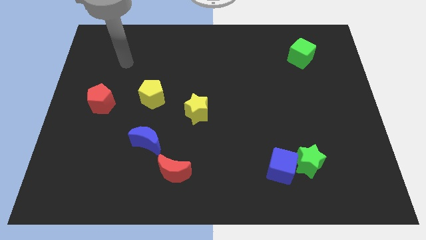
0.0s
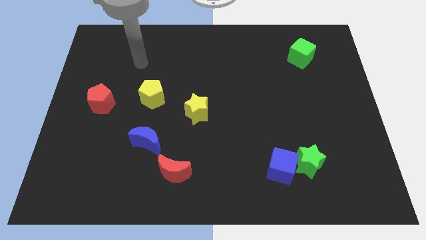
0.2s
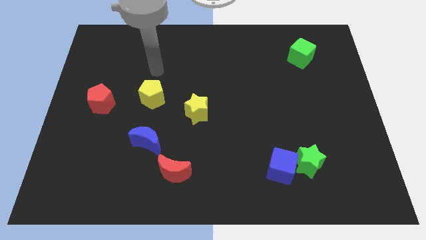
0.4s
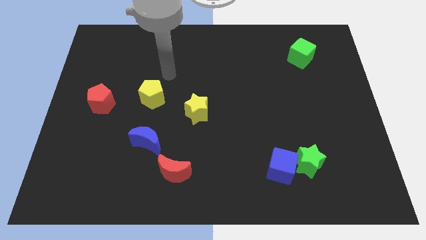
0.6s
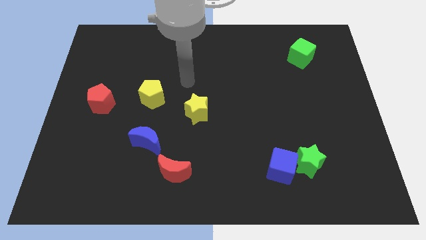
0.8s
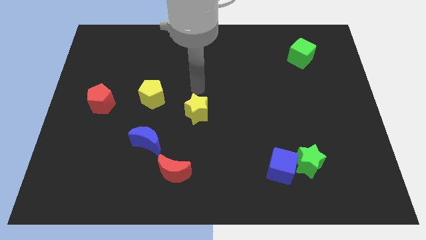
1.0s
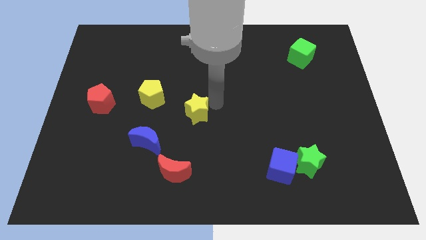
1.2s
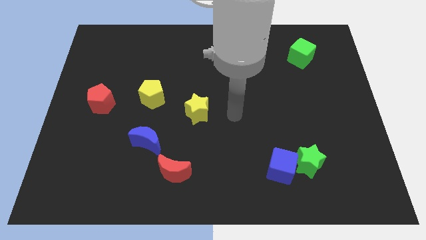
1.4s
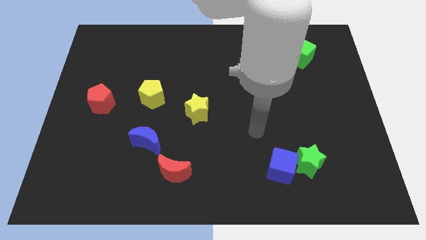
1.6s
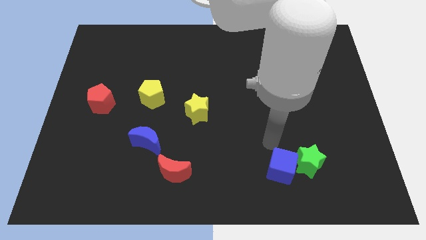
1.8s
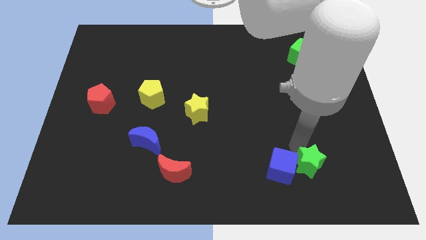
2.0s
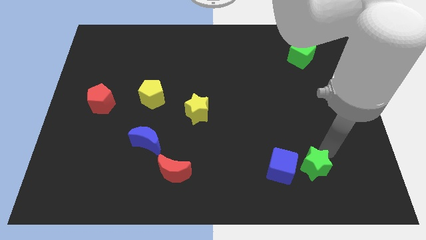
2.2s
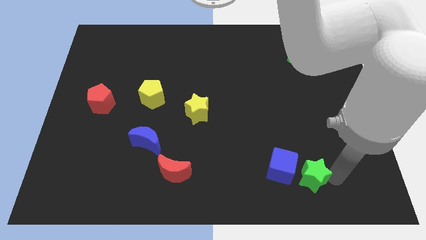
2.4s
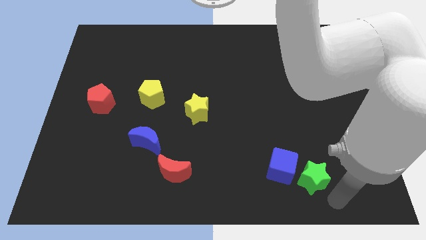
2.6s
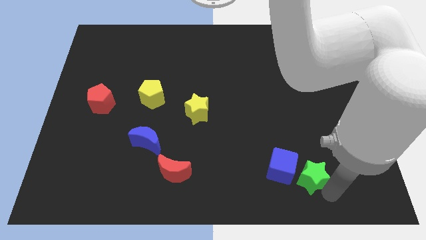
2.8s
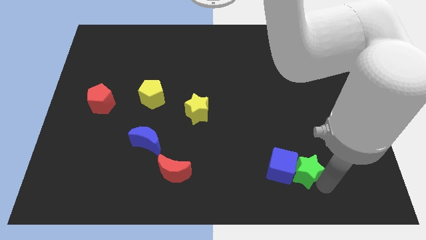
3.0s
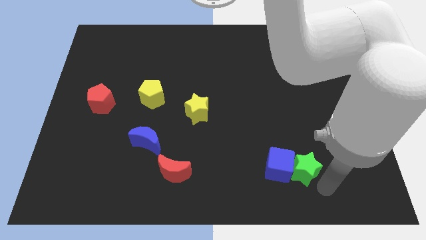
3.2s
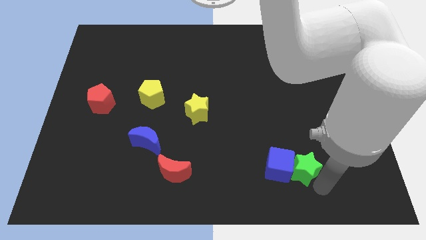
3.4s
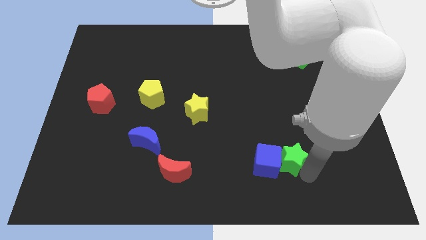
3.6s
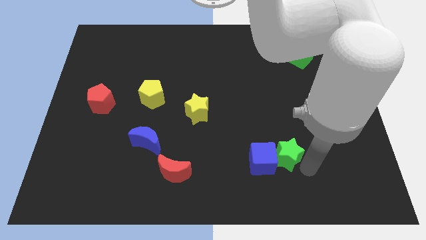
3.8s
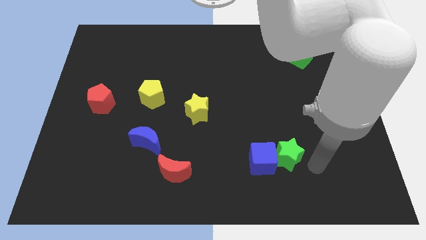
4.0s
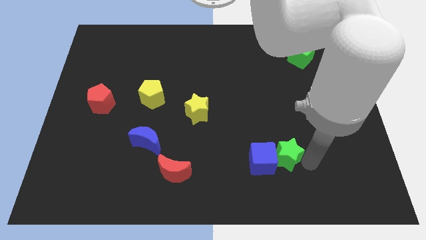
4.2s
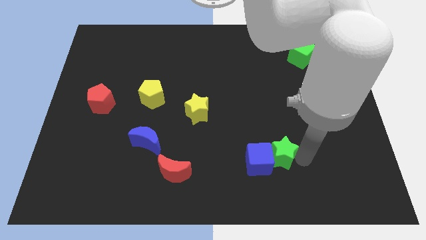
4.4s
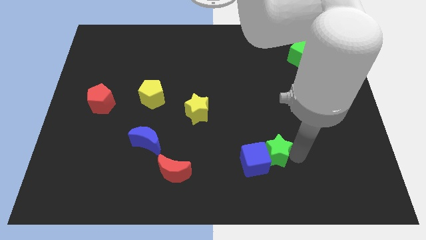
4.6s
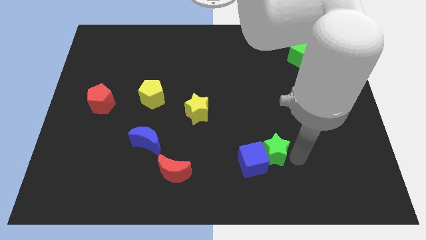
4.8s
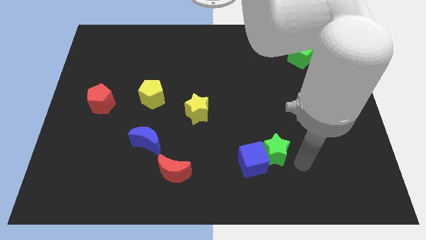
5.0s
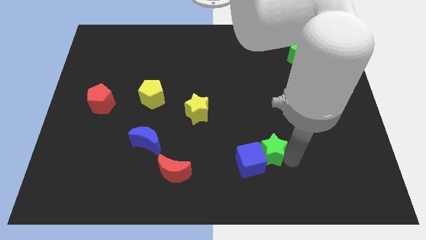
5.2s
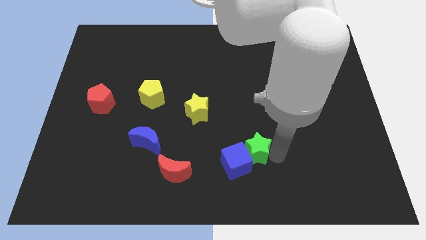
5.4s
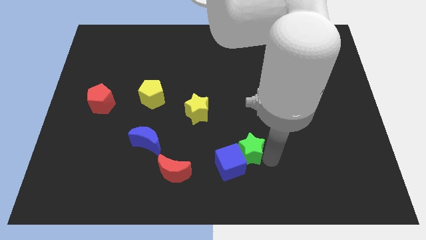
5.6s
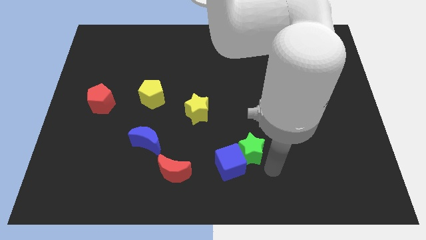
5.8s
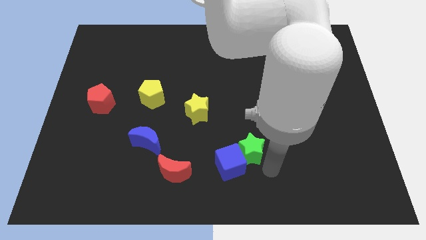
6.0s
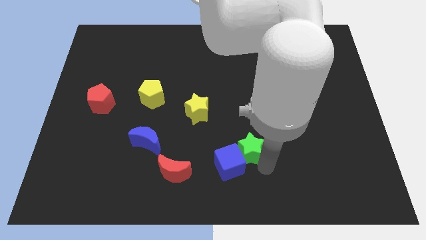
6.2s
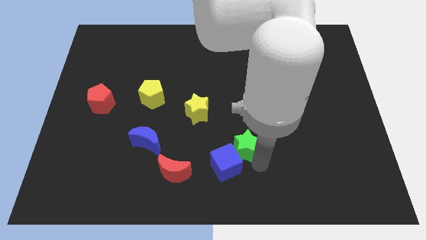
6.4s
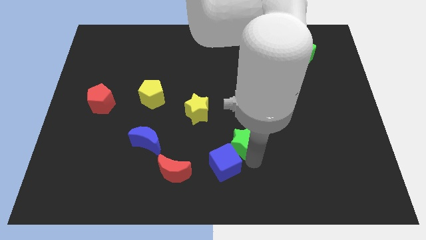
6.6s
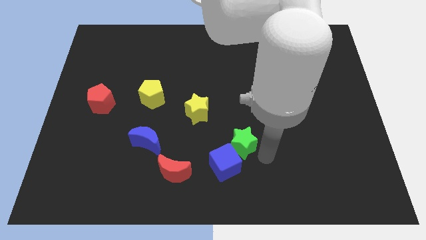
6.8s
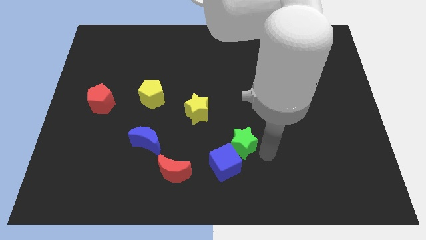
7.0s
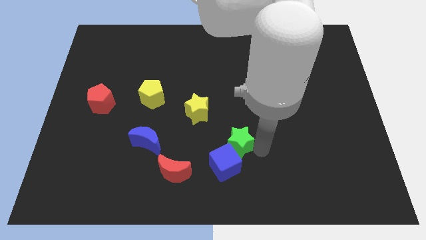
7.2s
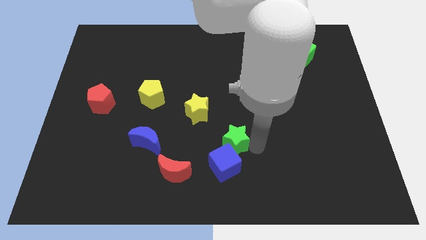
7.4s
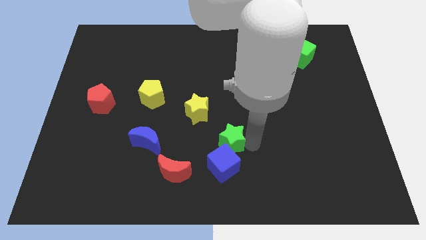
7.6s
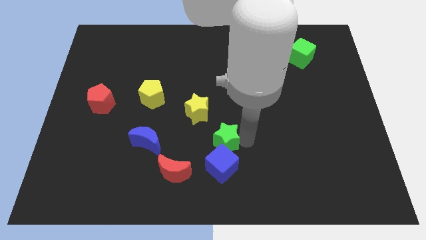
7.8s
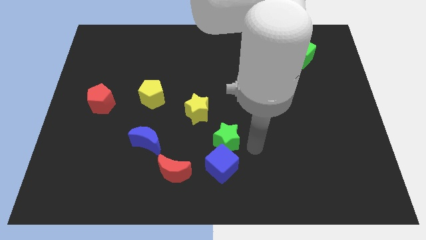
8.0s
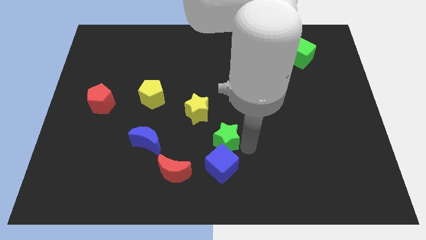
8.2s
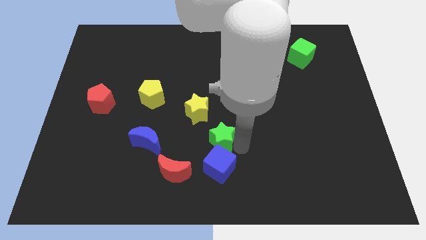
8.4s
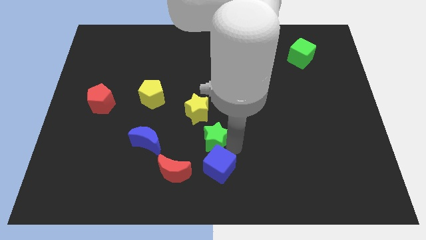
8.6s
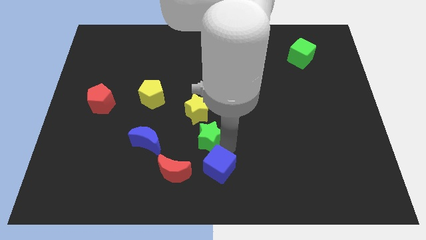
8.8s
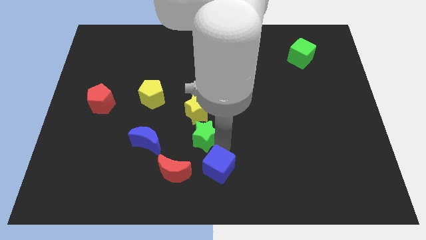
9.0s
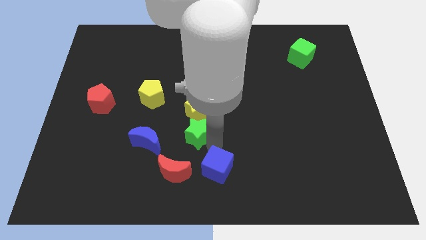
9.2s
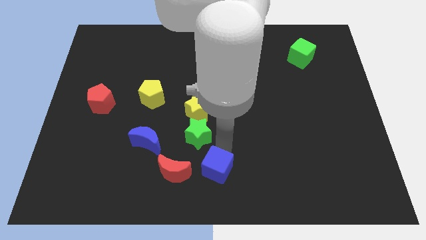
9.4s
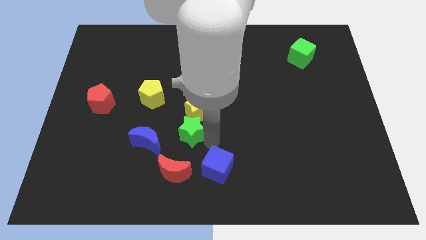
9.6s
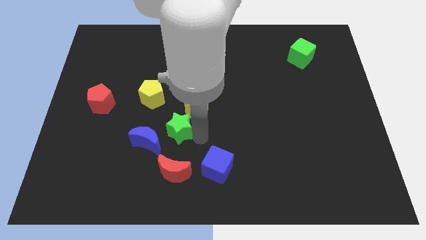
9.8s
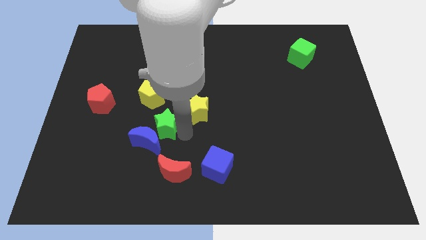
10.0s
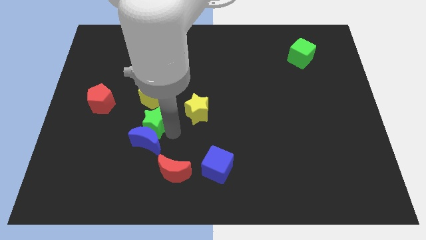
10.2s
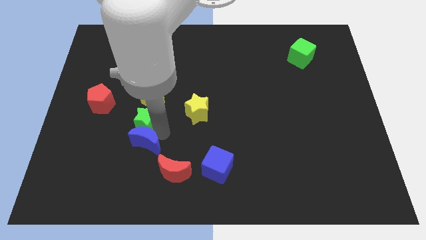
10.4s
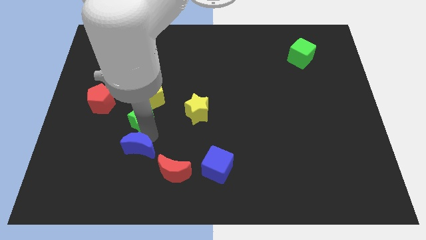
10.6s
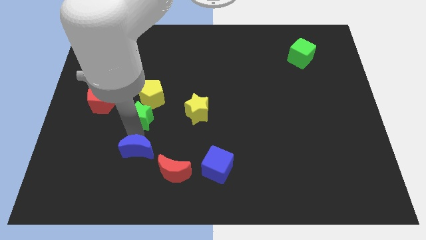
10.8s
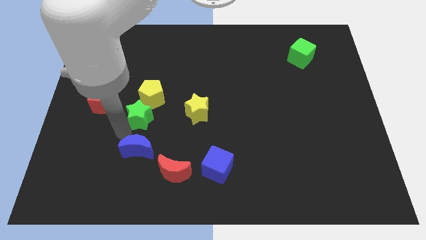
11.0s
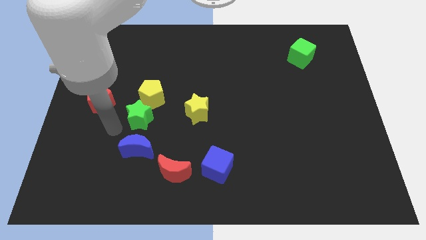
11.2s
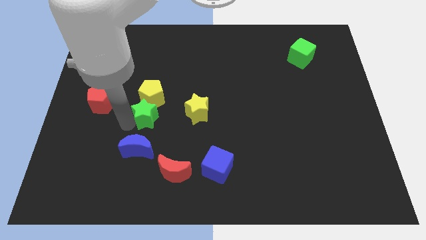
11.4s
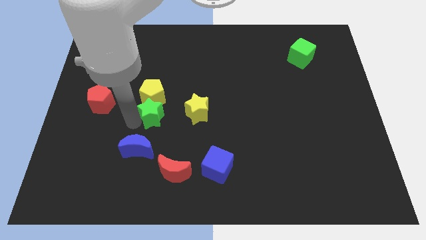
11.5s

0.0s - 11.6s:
push the green star towards the yellow pentagon
